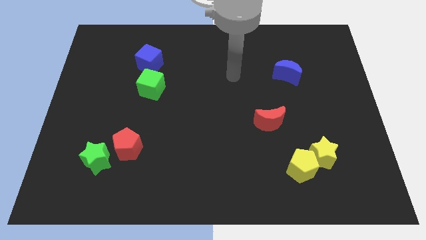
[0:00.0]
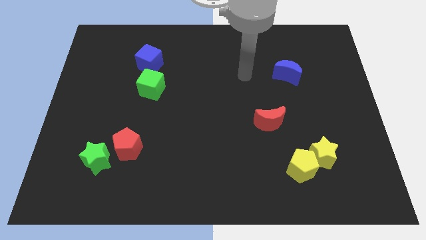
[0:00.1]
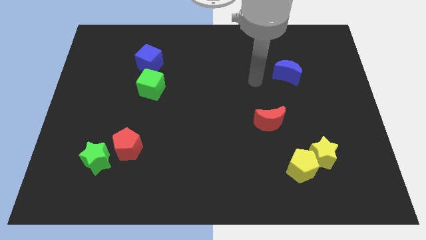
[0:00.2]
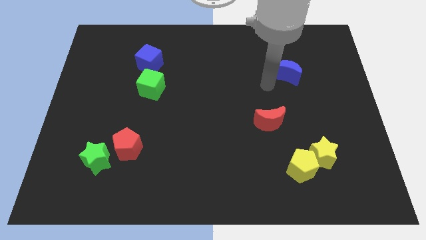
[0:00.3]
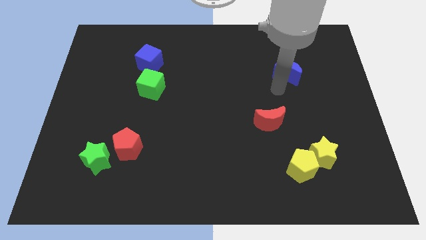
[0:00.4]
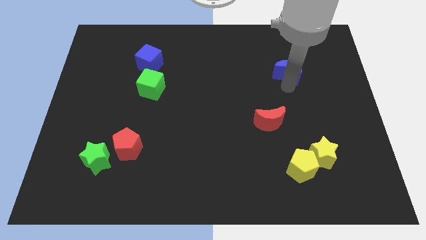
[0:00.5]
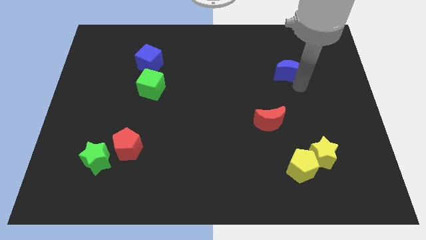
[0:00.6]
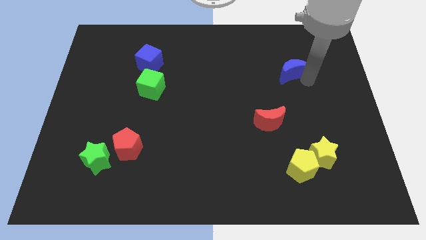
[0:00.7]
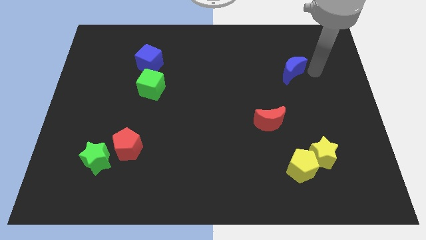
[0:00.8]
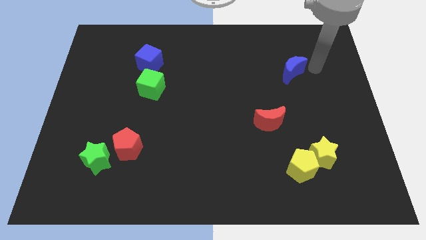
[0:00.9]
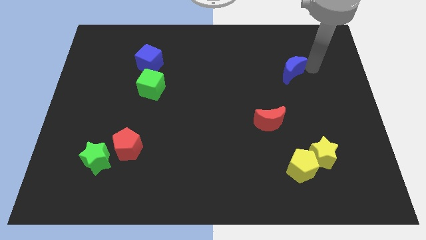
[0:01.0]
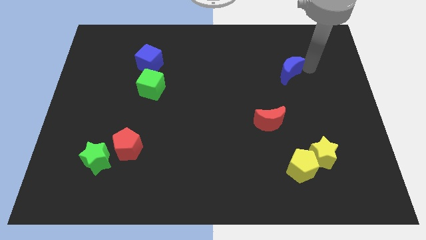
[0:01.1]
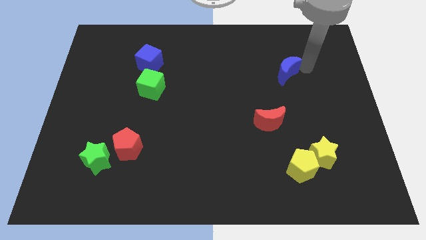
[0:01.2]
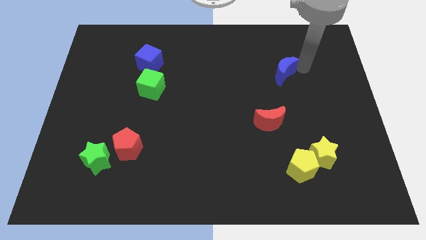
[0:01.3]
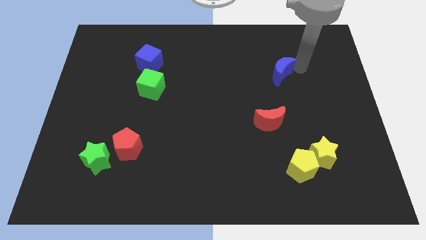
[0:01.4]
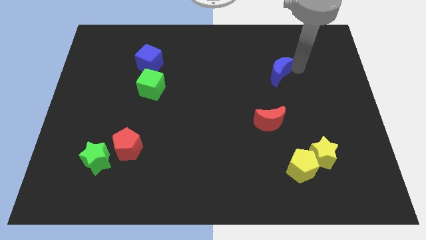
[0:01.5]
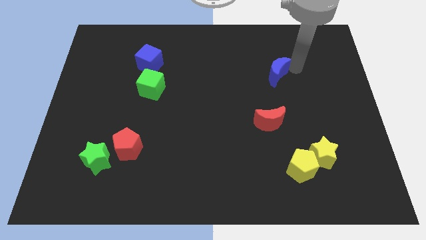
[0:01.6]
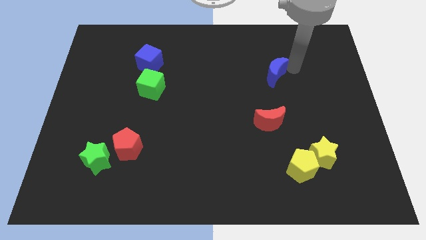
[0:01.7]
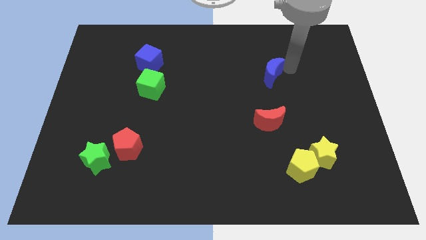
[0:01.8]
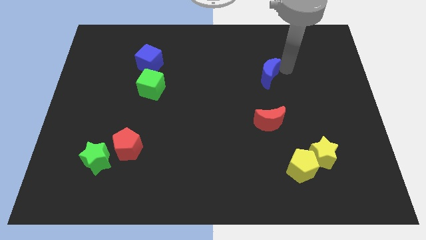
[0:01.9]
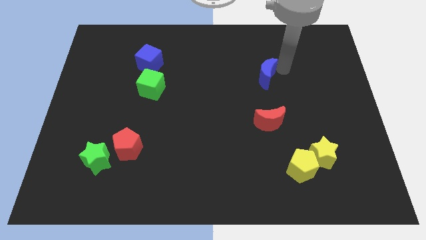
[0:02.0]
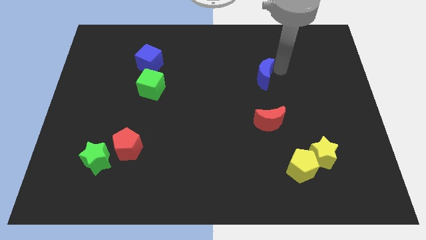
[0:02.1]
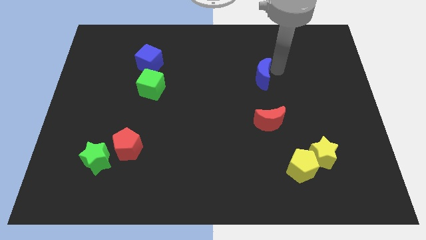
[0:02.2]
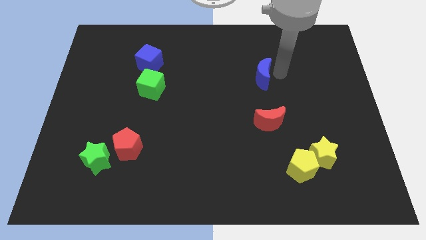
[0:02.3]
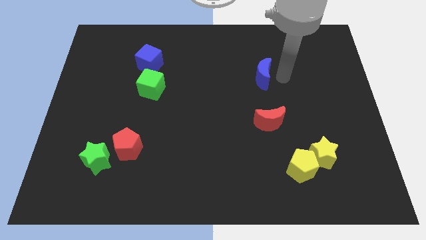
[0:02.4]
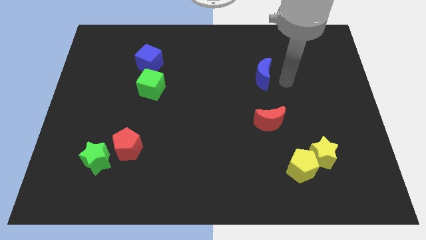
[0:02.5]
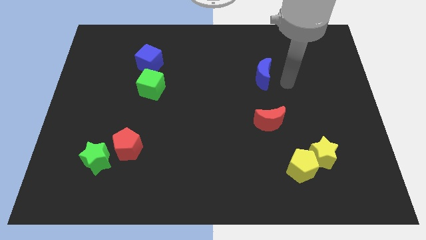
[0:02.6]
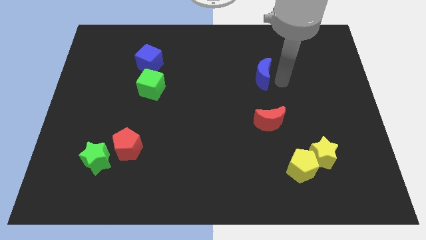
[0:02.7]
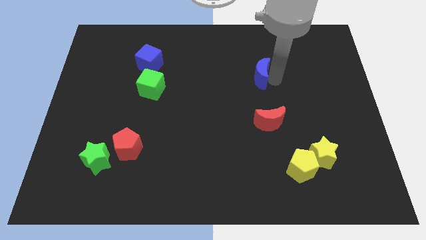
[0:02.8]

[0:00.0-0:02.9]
slightly move the blue moon left

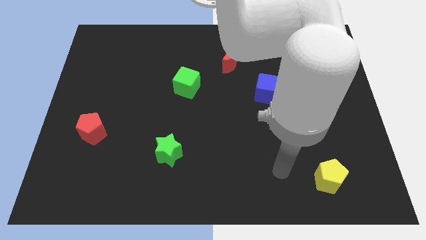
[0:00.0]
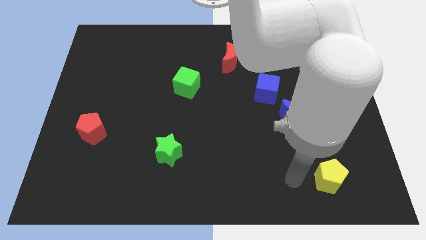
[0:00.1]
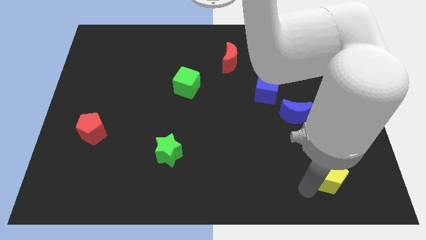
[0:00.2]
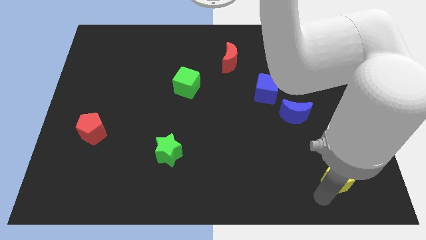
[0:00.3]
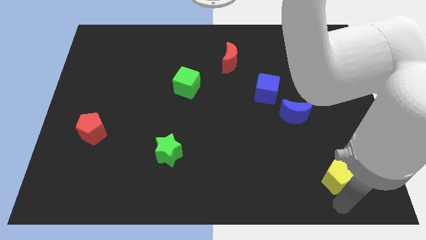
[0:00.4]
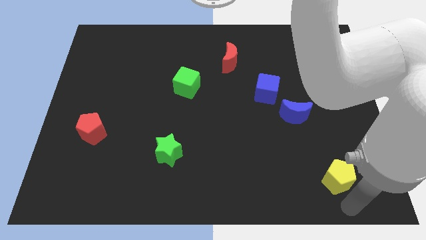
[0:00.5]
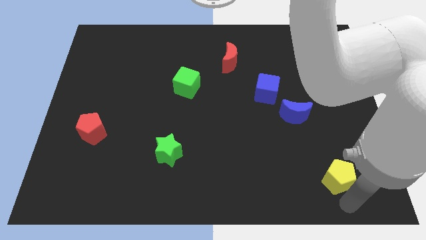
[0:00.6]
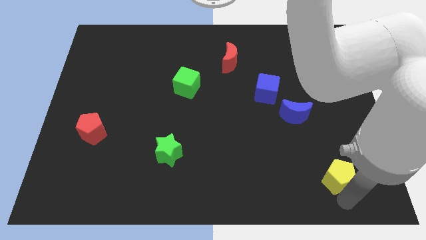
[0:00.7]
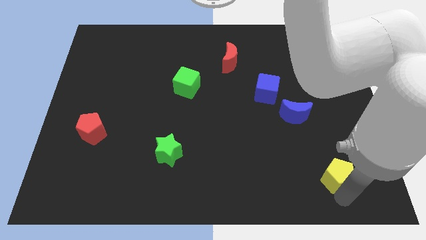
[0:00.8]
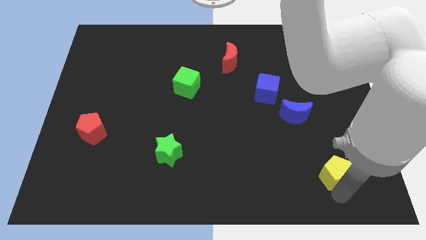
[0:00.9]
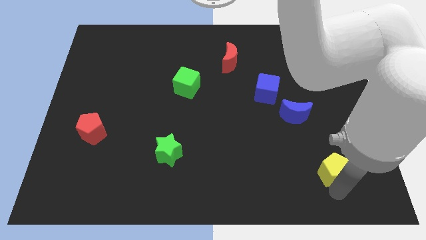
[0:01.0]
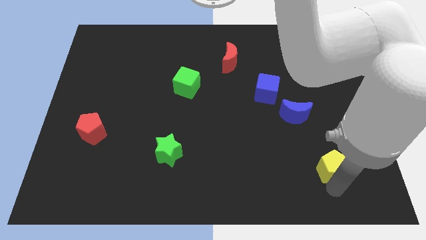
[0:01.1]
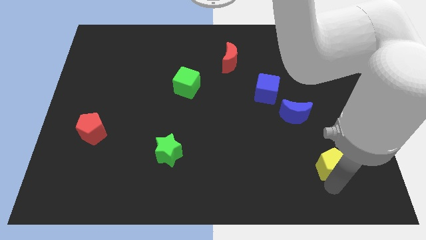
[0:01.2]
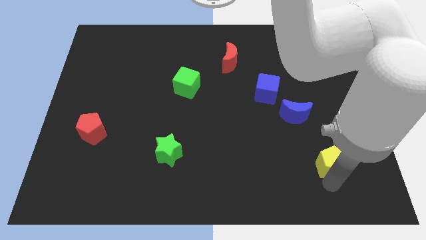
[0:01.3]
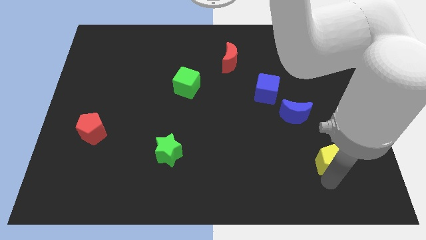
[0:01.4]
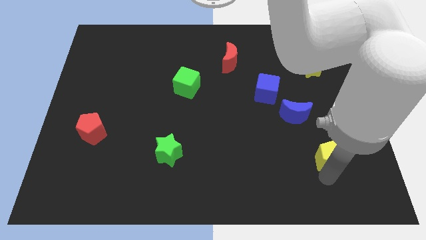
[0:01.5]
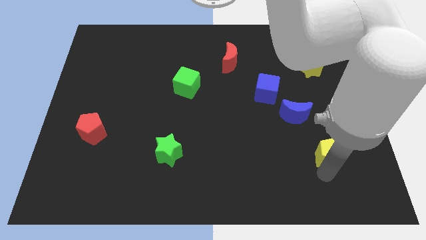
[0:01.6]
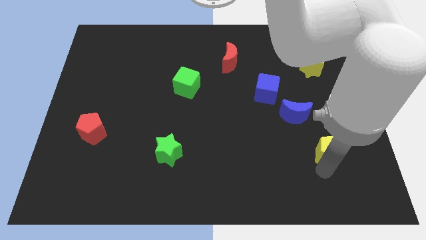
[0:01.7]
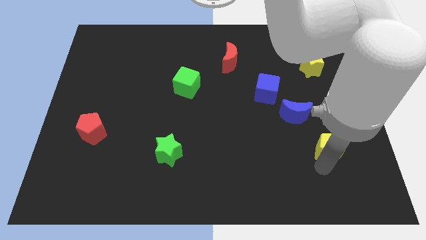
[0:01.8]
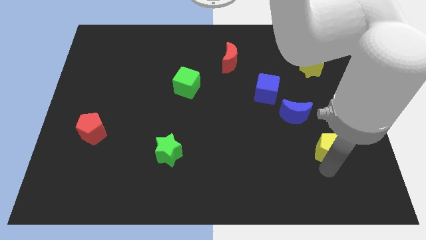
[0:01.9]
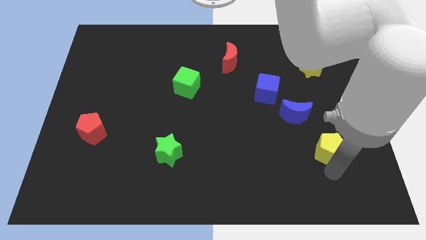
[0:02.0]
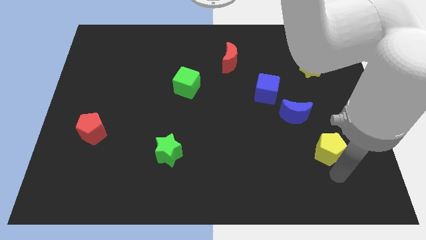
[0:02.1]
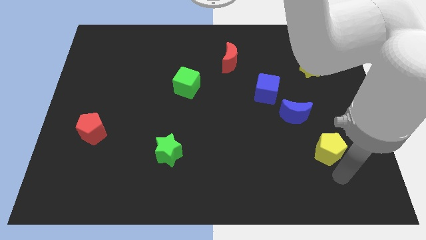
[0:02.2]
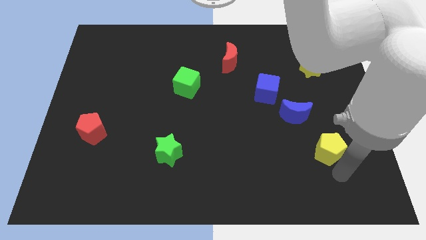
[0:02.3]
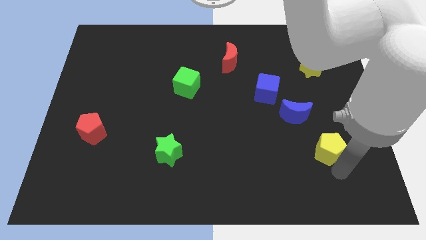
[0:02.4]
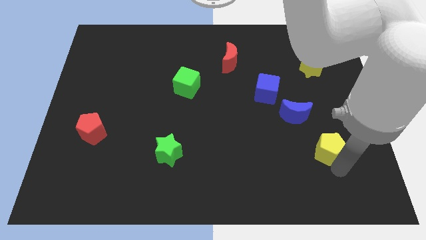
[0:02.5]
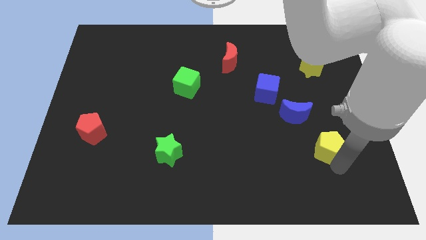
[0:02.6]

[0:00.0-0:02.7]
slide the yellow pentagon upwards somewhat

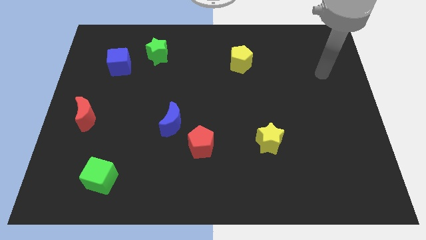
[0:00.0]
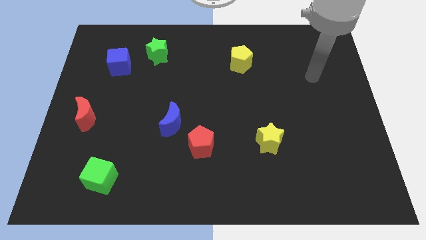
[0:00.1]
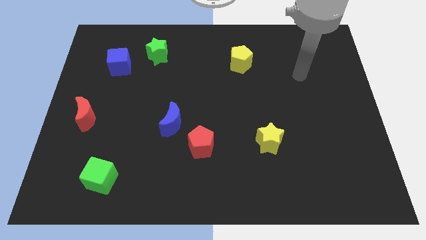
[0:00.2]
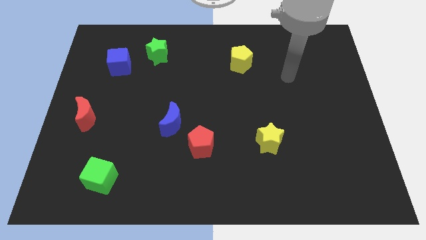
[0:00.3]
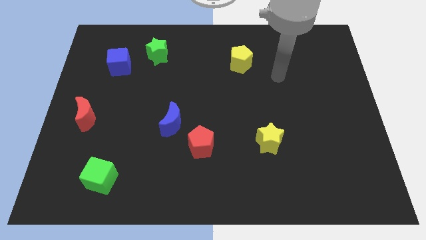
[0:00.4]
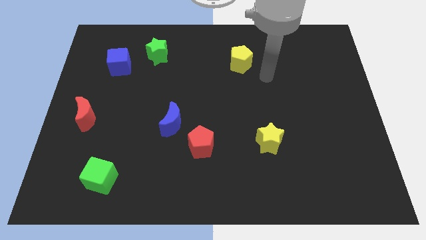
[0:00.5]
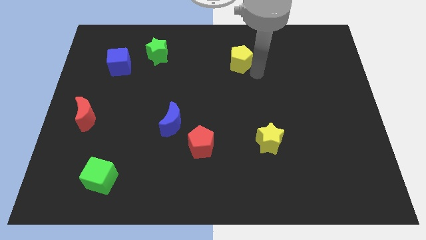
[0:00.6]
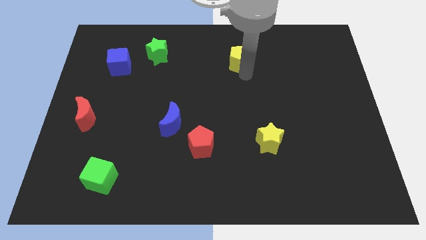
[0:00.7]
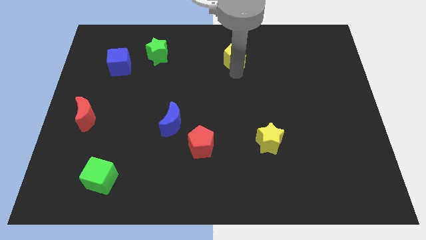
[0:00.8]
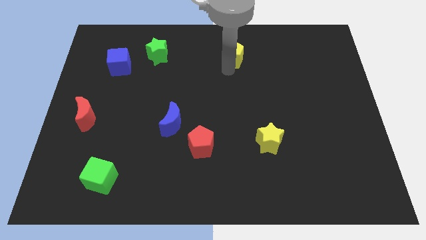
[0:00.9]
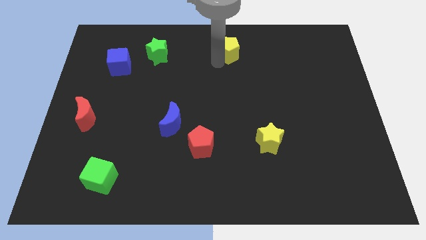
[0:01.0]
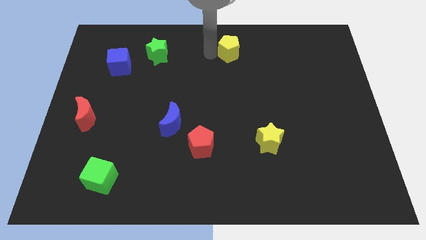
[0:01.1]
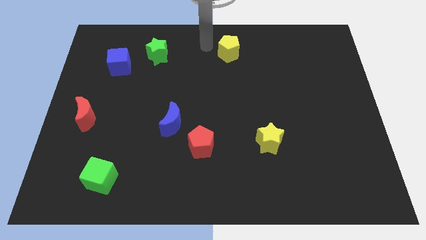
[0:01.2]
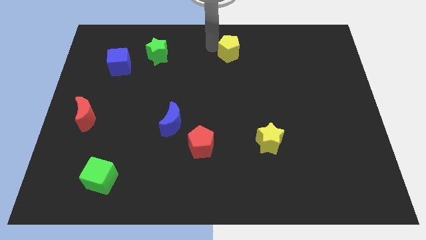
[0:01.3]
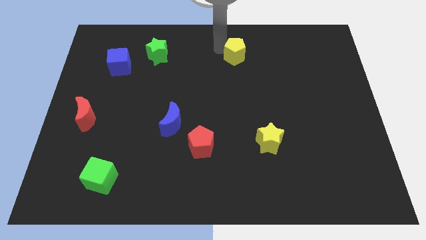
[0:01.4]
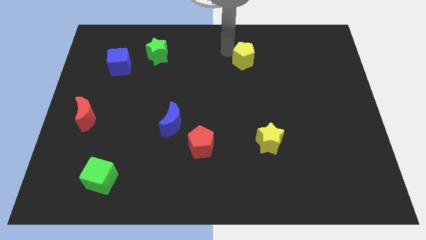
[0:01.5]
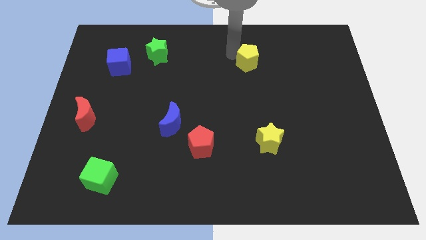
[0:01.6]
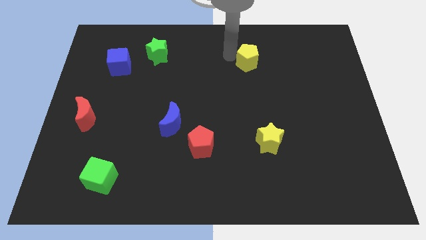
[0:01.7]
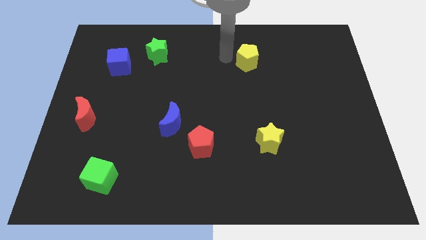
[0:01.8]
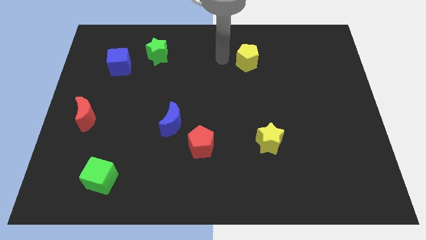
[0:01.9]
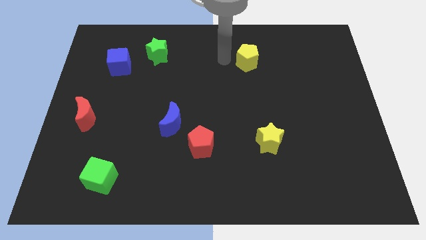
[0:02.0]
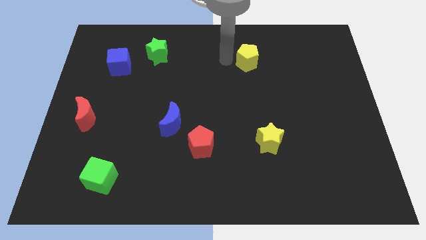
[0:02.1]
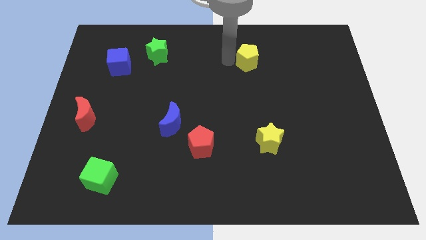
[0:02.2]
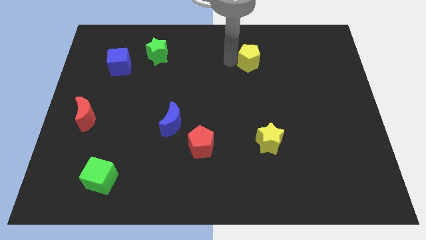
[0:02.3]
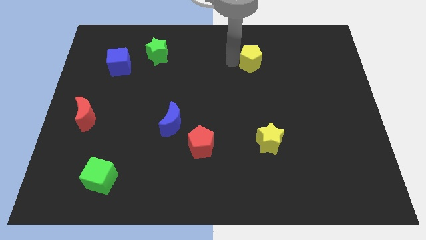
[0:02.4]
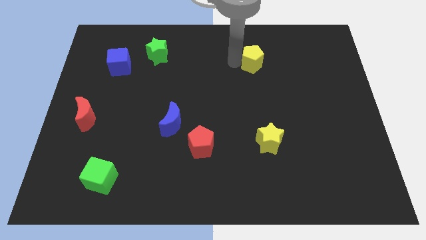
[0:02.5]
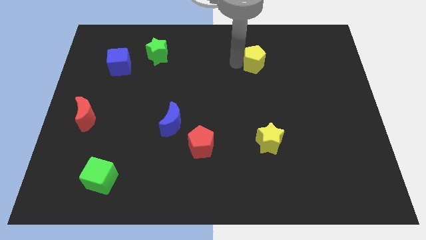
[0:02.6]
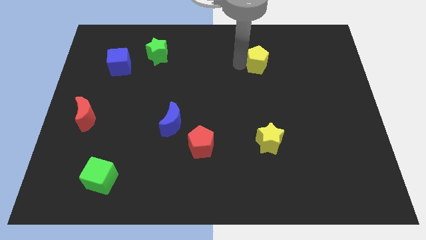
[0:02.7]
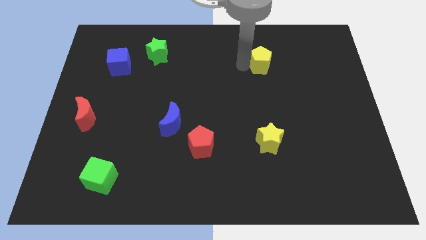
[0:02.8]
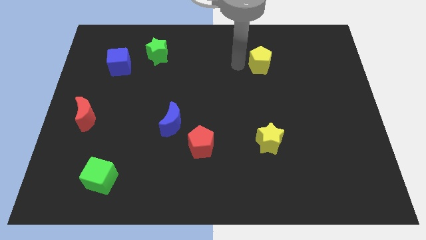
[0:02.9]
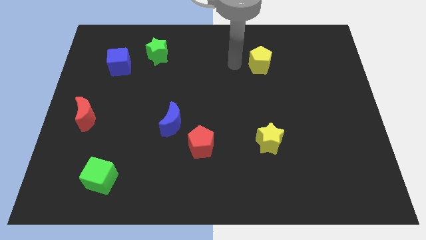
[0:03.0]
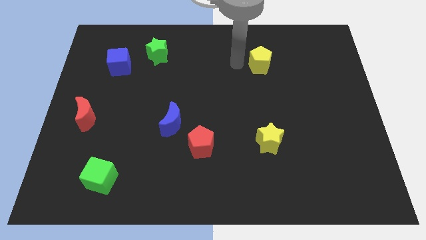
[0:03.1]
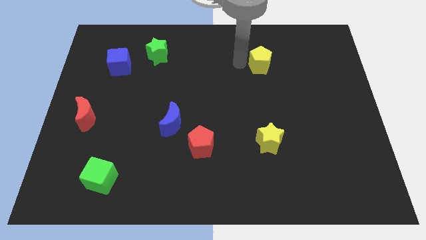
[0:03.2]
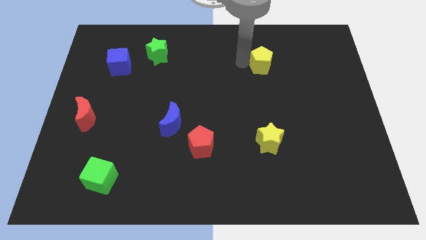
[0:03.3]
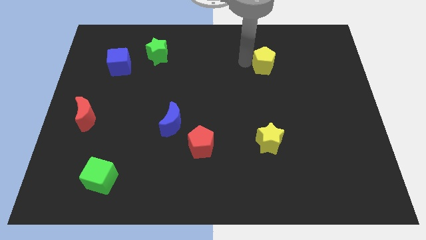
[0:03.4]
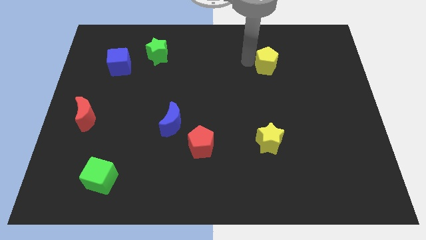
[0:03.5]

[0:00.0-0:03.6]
move the yellow pentagon a little bit to the right
